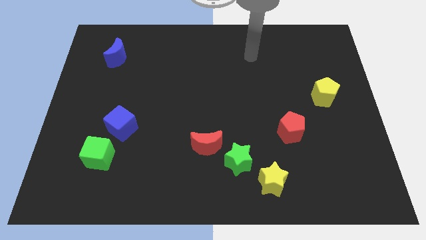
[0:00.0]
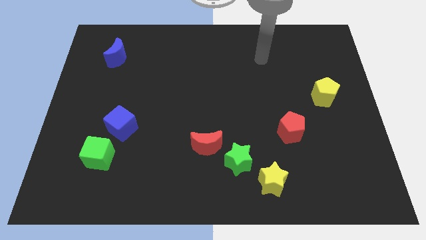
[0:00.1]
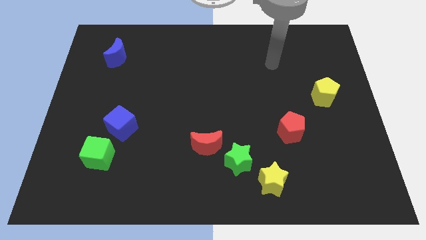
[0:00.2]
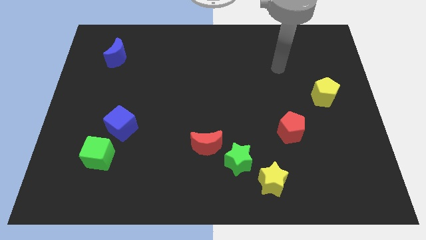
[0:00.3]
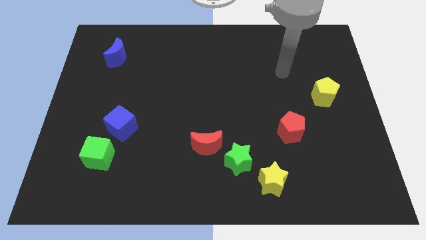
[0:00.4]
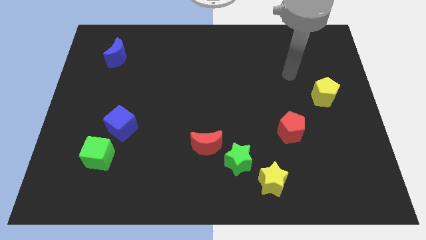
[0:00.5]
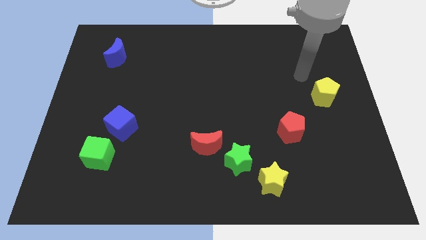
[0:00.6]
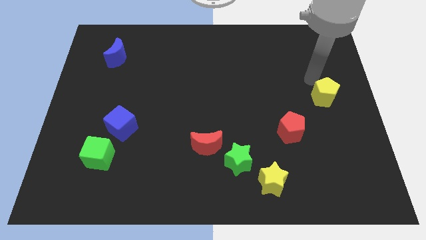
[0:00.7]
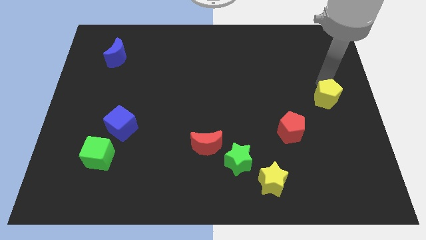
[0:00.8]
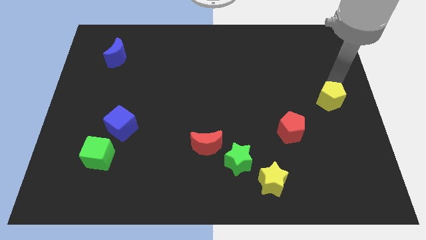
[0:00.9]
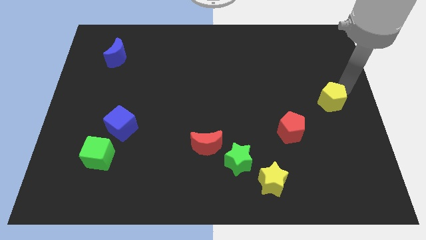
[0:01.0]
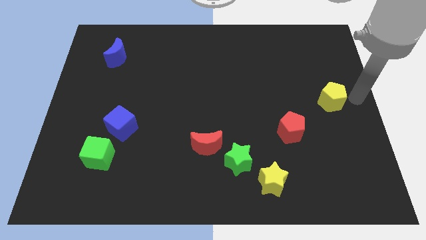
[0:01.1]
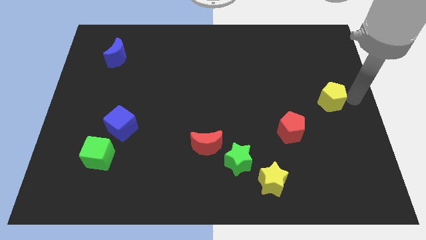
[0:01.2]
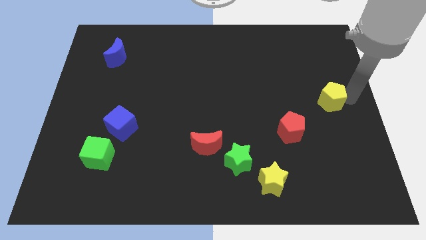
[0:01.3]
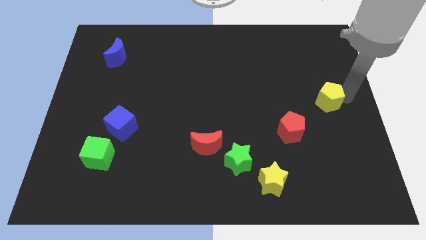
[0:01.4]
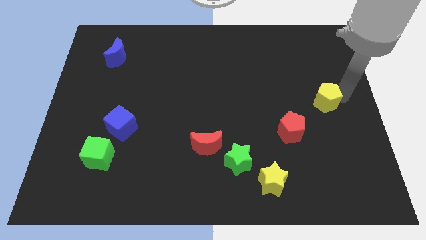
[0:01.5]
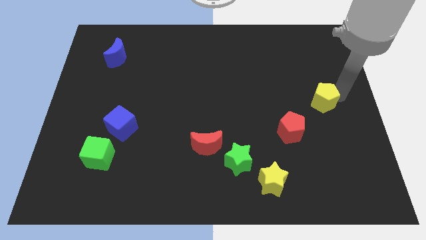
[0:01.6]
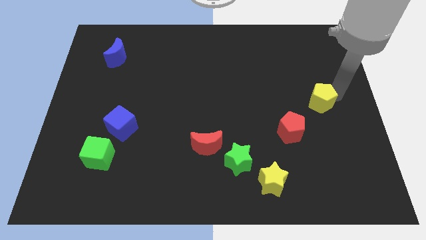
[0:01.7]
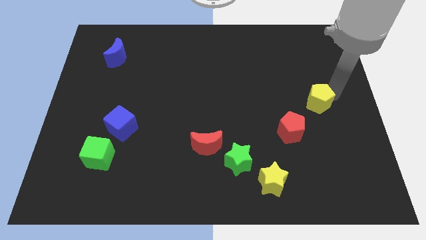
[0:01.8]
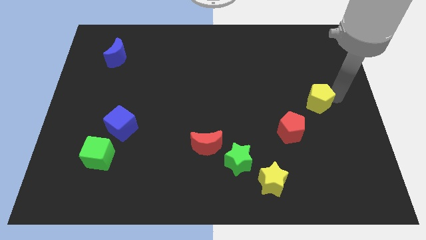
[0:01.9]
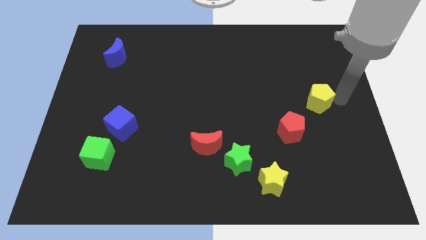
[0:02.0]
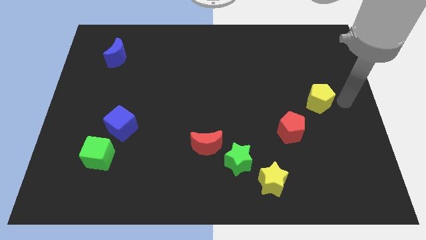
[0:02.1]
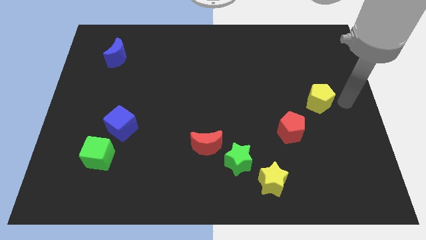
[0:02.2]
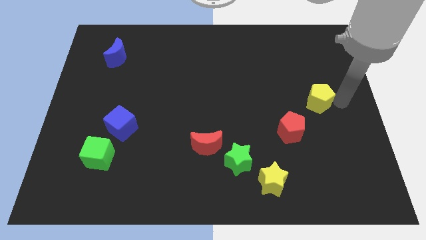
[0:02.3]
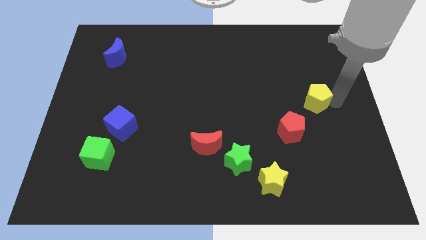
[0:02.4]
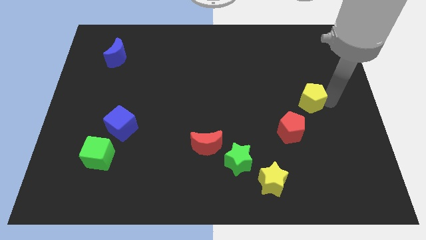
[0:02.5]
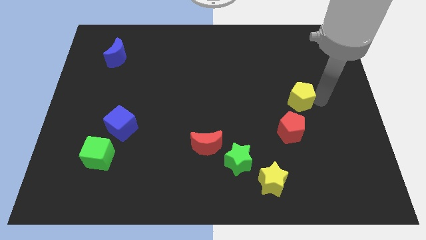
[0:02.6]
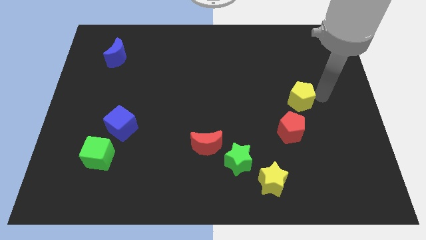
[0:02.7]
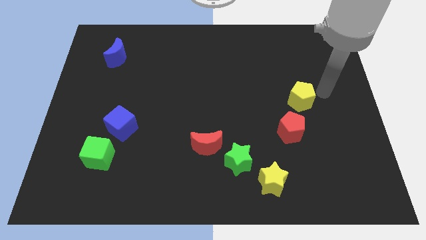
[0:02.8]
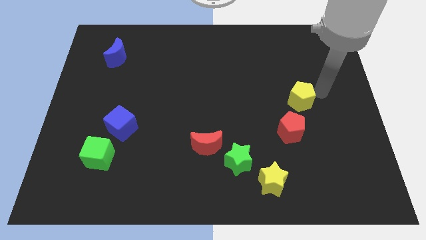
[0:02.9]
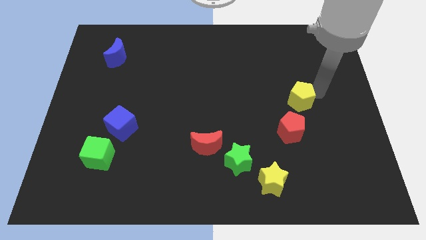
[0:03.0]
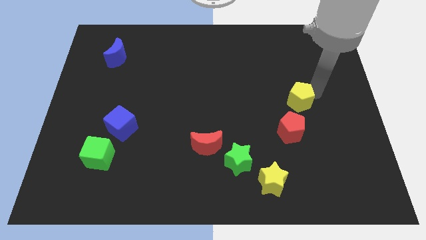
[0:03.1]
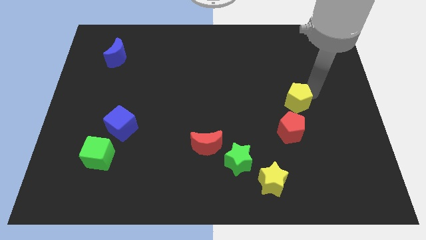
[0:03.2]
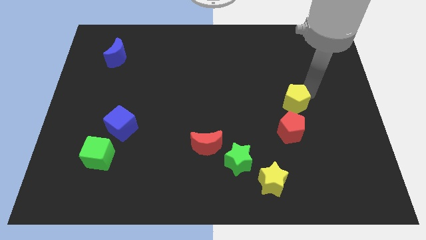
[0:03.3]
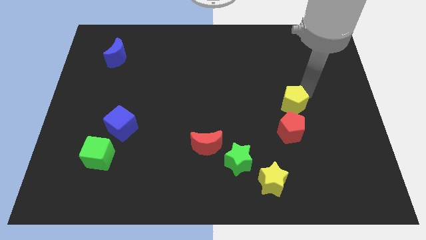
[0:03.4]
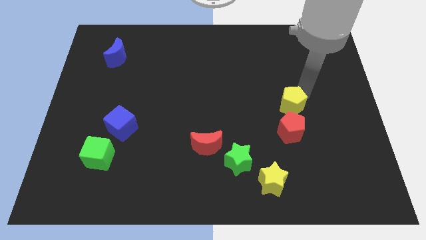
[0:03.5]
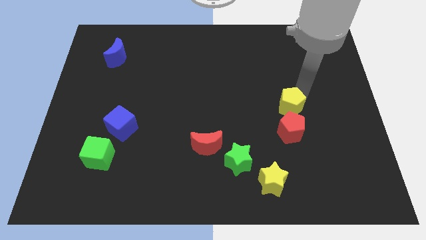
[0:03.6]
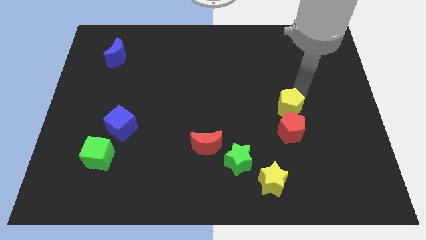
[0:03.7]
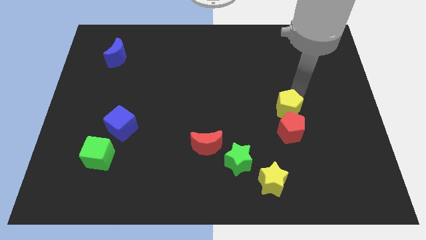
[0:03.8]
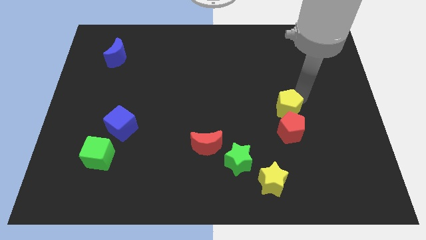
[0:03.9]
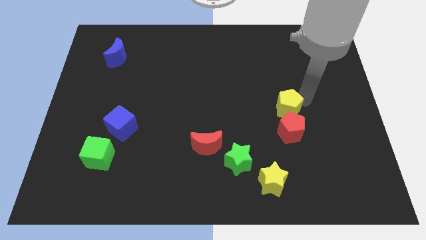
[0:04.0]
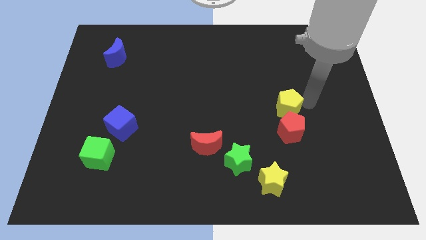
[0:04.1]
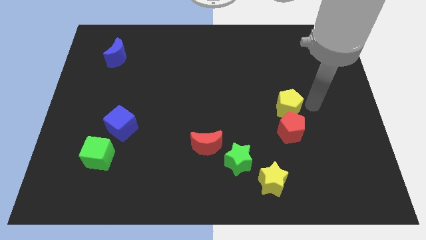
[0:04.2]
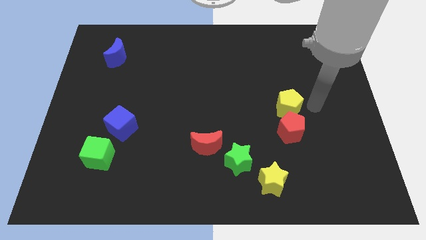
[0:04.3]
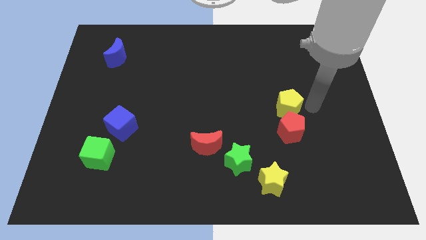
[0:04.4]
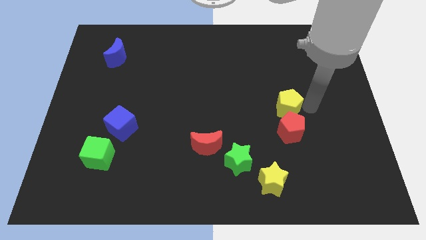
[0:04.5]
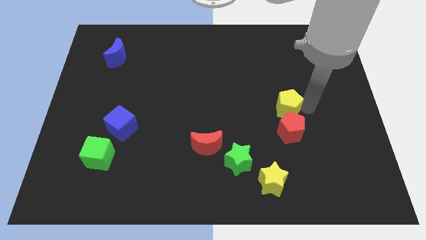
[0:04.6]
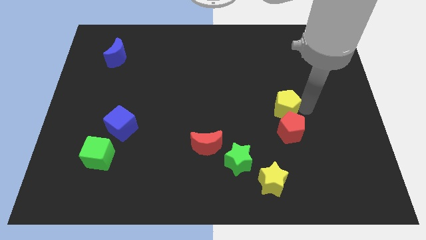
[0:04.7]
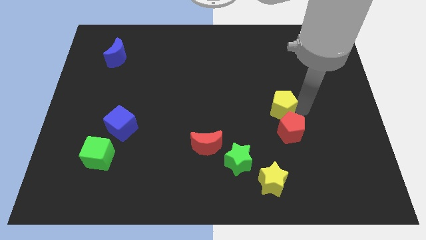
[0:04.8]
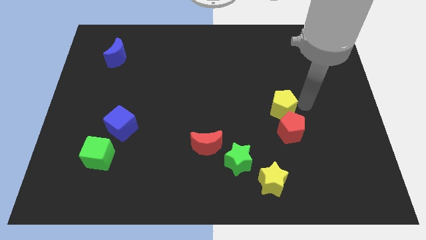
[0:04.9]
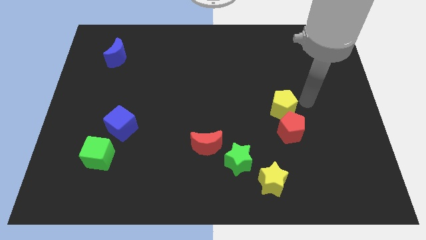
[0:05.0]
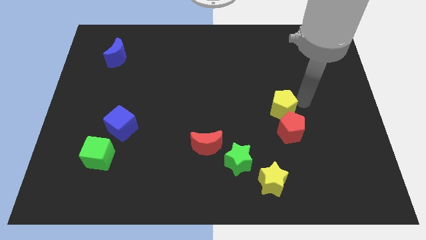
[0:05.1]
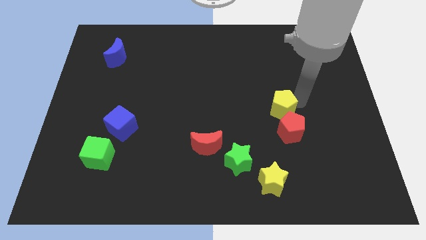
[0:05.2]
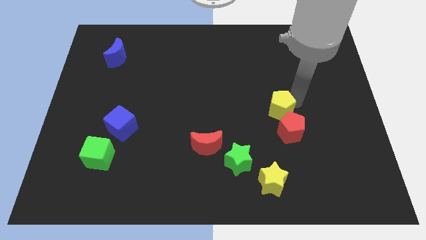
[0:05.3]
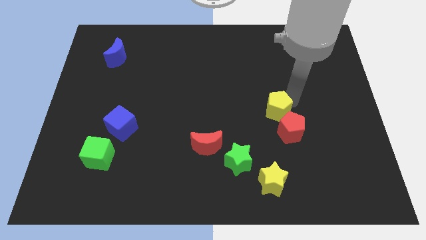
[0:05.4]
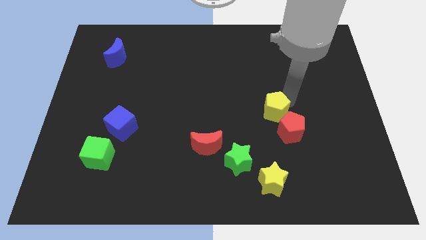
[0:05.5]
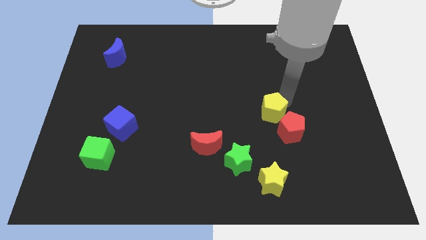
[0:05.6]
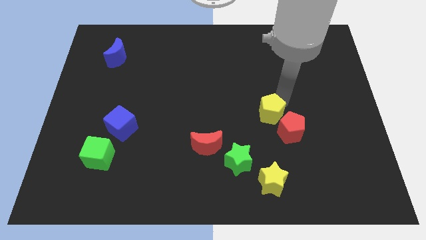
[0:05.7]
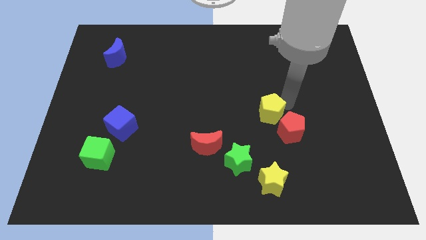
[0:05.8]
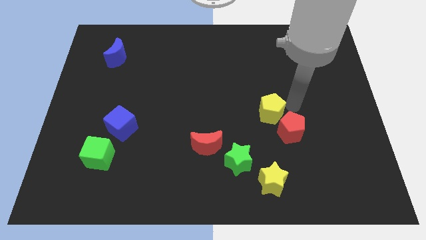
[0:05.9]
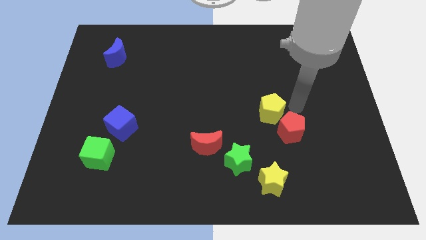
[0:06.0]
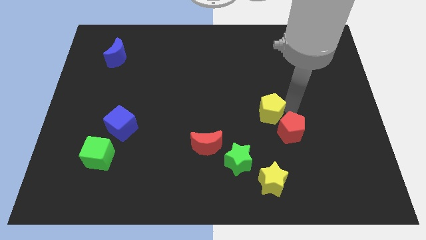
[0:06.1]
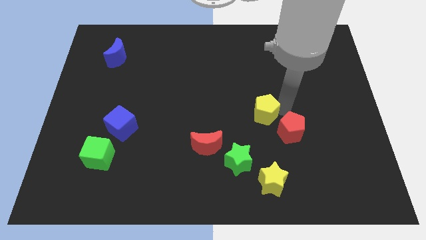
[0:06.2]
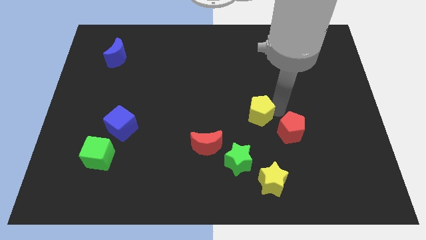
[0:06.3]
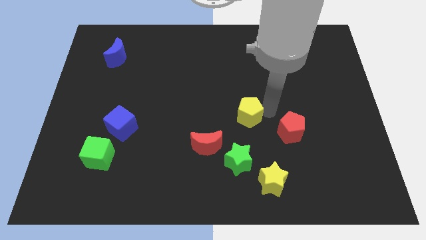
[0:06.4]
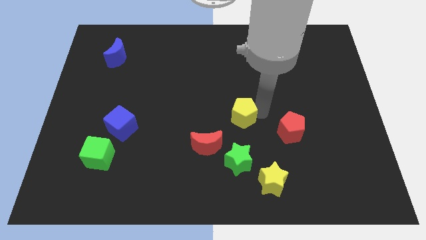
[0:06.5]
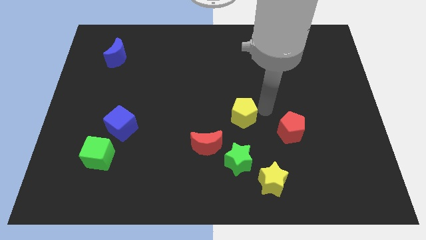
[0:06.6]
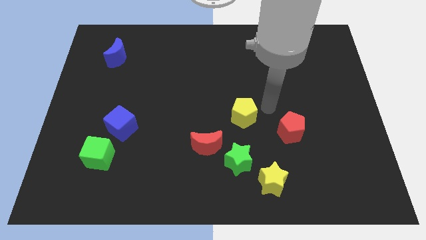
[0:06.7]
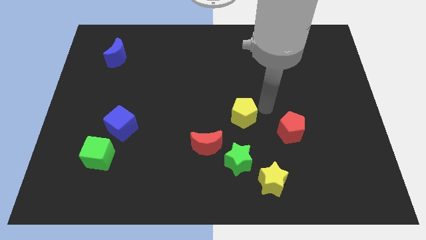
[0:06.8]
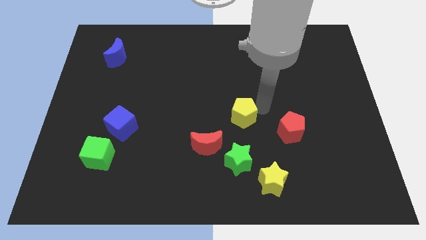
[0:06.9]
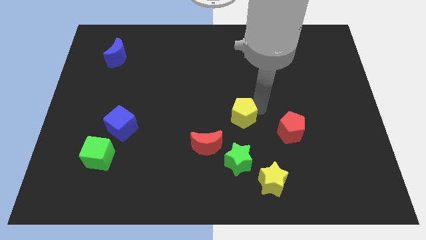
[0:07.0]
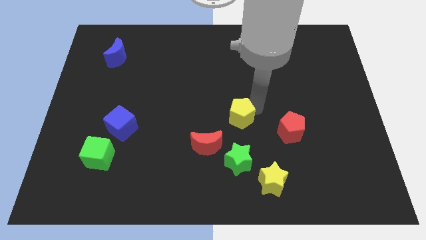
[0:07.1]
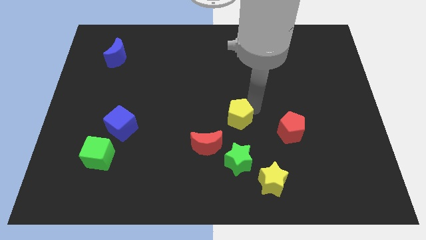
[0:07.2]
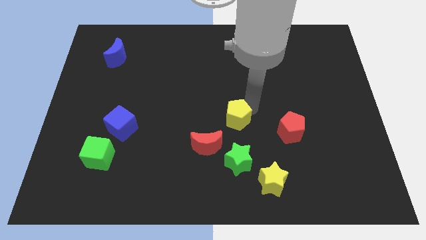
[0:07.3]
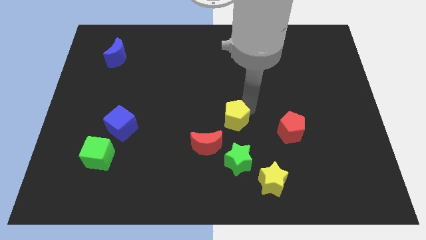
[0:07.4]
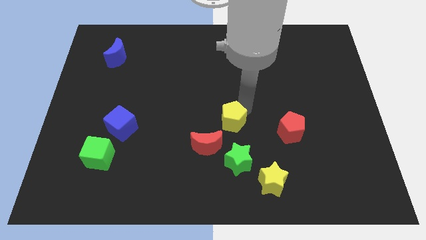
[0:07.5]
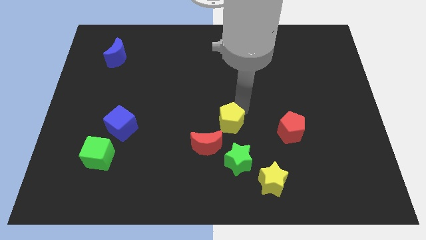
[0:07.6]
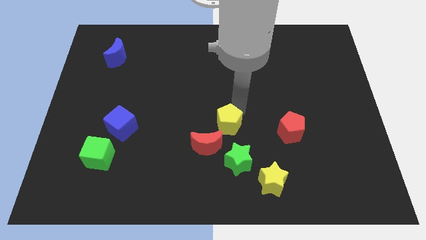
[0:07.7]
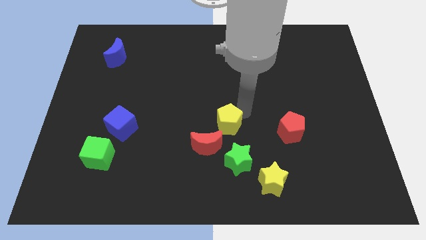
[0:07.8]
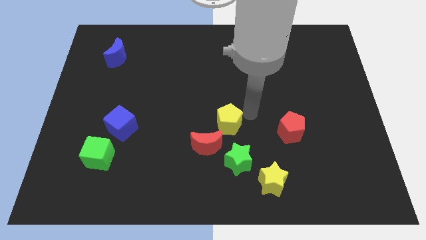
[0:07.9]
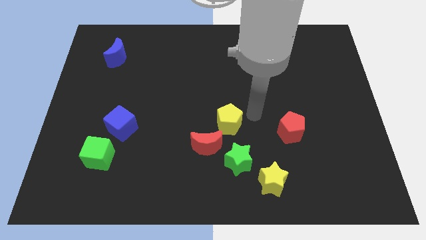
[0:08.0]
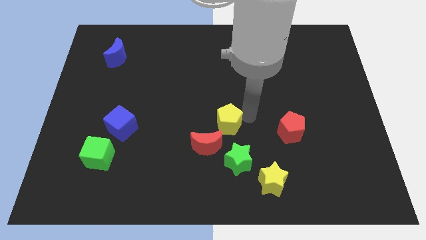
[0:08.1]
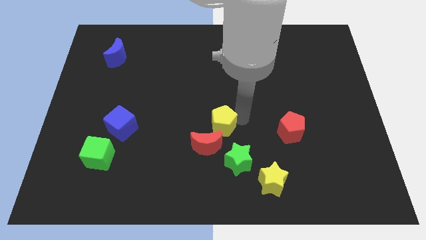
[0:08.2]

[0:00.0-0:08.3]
put the yellow pentagon diagonally up and to the left of the green star
